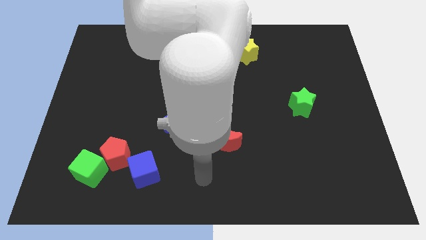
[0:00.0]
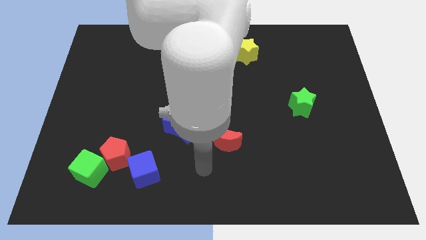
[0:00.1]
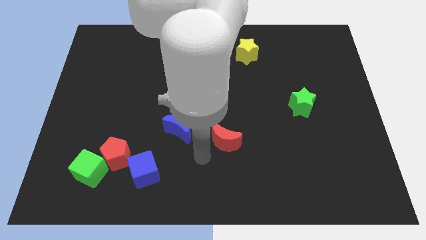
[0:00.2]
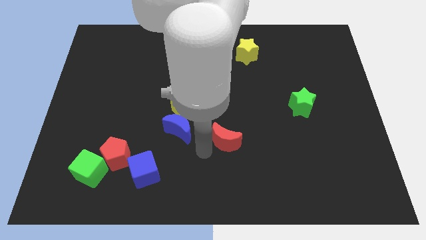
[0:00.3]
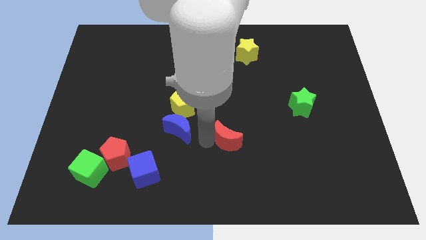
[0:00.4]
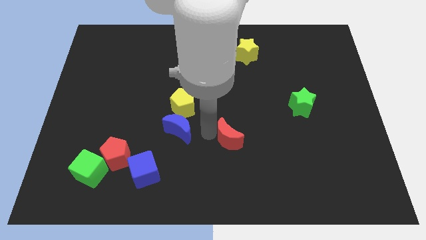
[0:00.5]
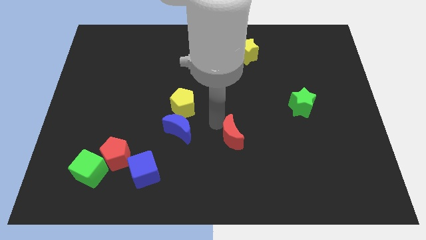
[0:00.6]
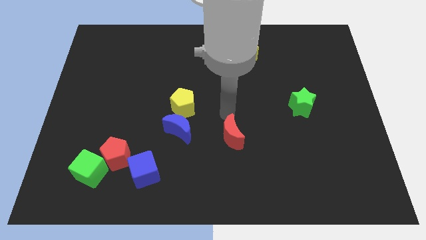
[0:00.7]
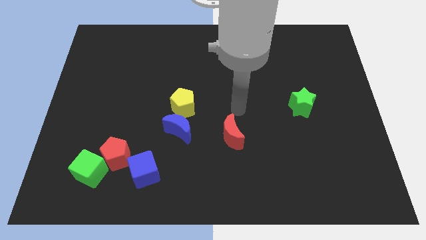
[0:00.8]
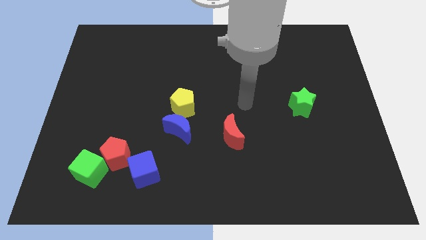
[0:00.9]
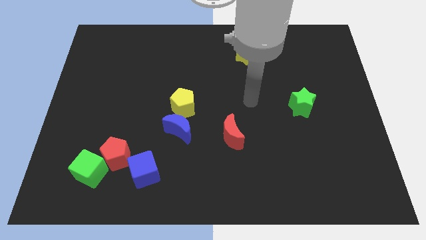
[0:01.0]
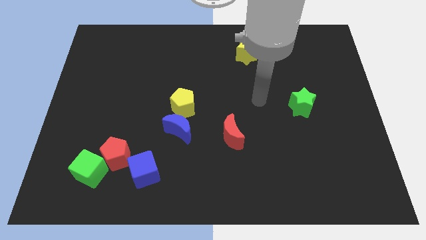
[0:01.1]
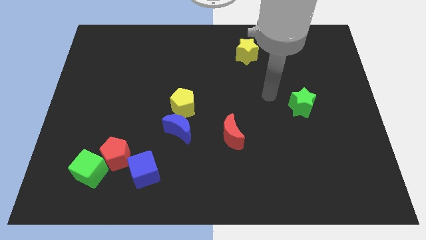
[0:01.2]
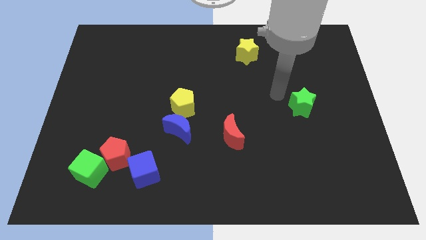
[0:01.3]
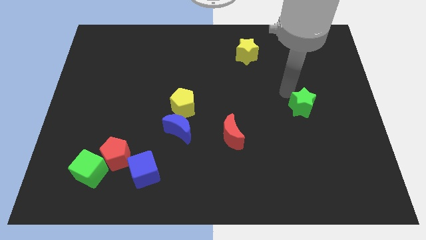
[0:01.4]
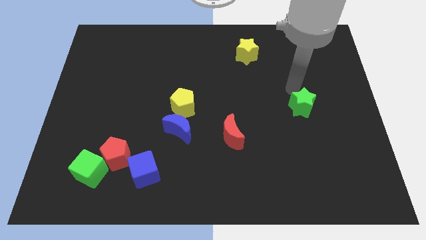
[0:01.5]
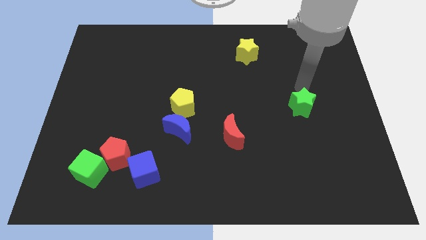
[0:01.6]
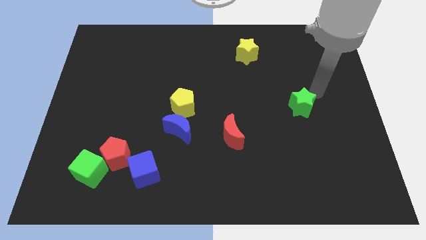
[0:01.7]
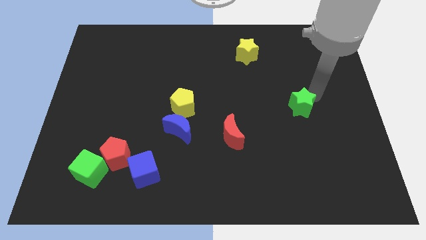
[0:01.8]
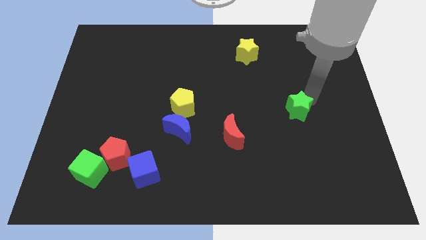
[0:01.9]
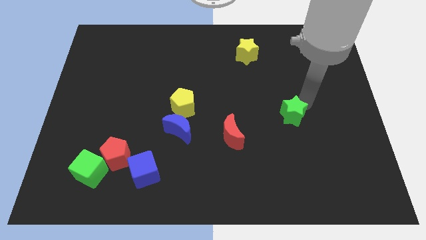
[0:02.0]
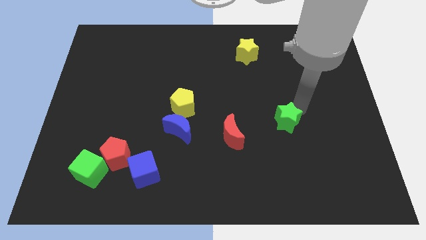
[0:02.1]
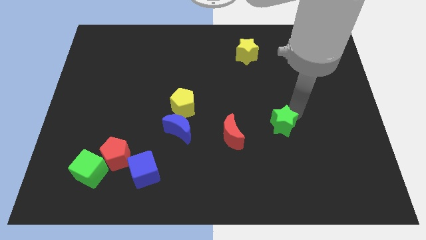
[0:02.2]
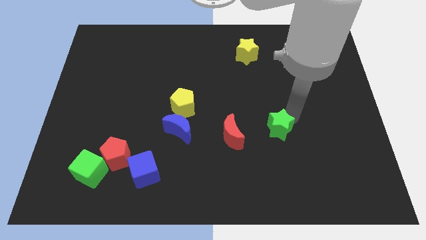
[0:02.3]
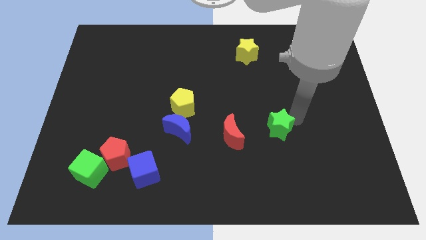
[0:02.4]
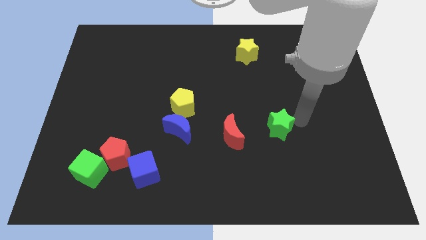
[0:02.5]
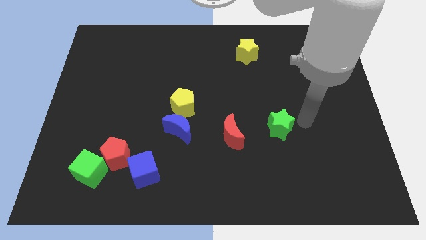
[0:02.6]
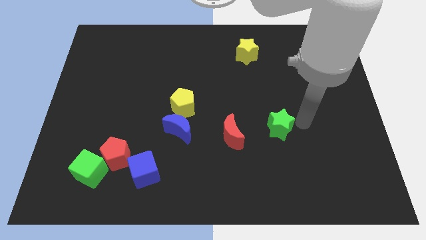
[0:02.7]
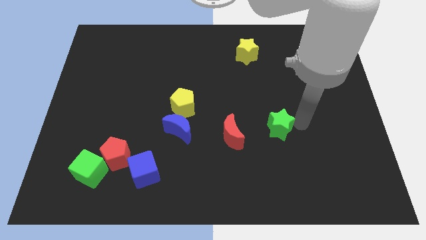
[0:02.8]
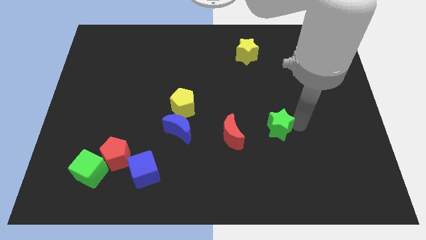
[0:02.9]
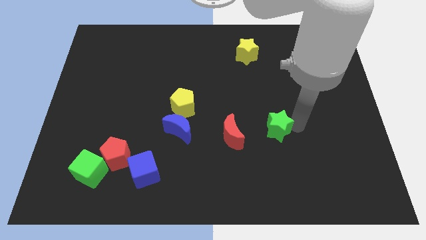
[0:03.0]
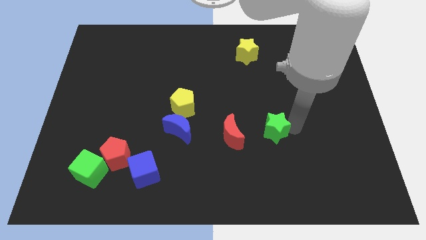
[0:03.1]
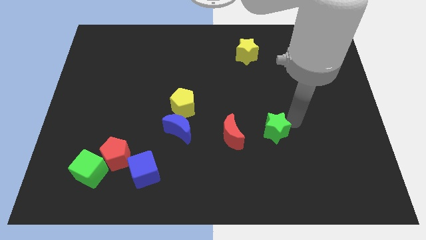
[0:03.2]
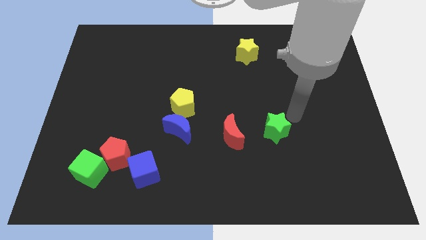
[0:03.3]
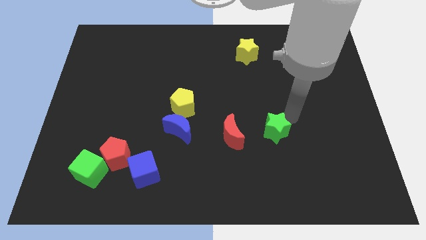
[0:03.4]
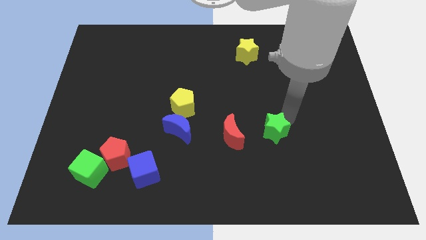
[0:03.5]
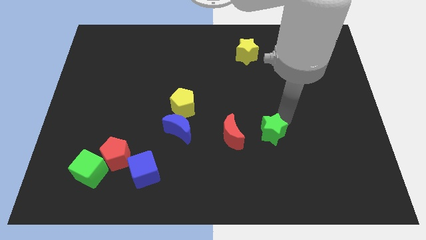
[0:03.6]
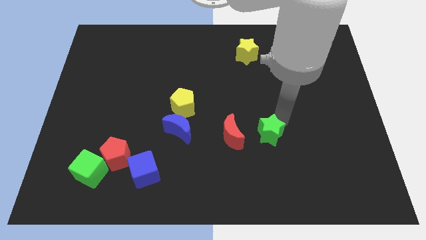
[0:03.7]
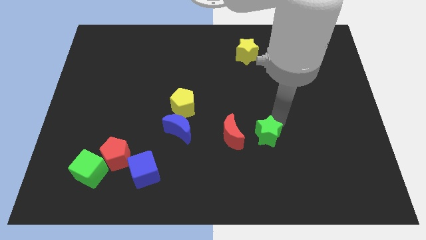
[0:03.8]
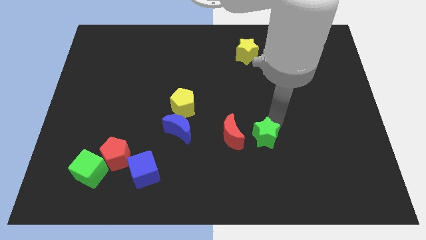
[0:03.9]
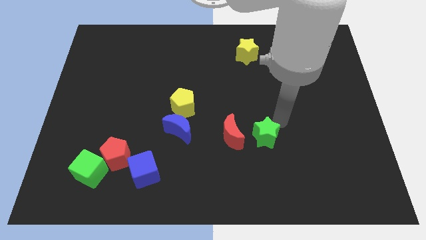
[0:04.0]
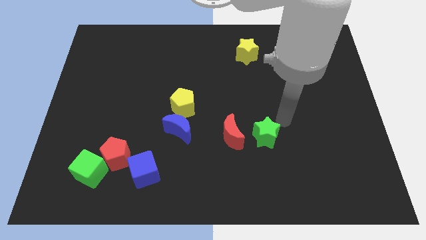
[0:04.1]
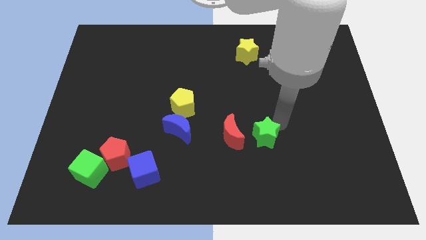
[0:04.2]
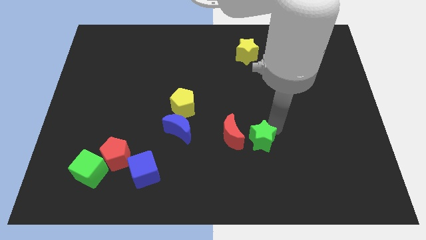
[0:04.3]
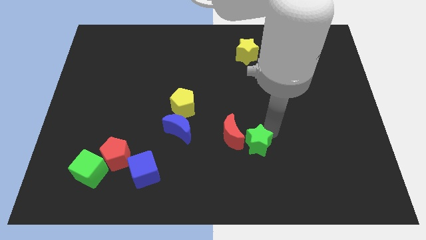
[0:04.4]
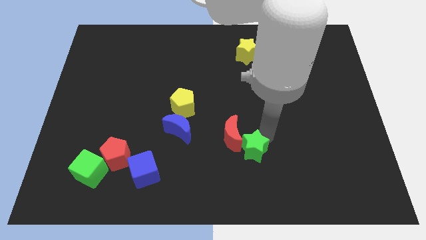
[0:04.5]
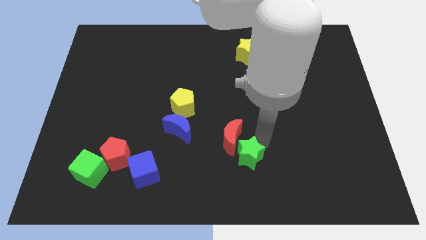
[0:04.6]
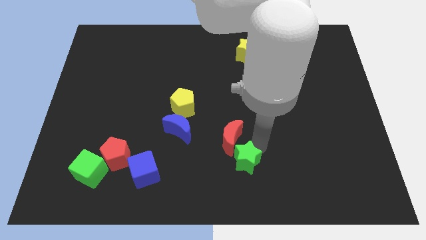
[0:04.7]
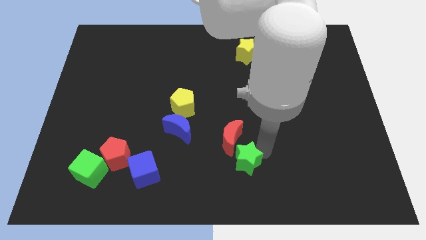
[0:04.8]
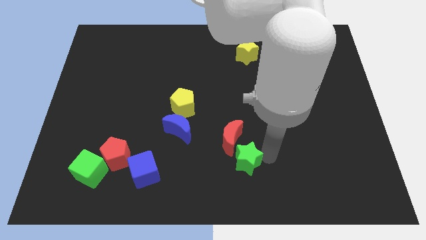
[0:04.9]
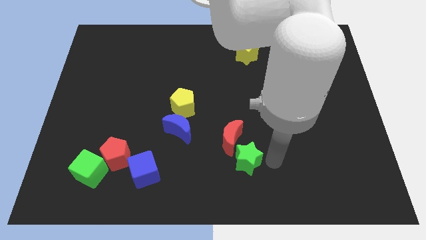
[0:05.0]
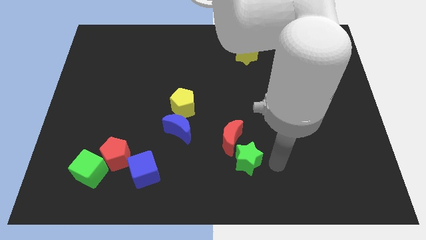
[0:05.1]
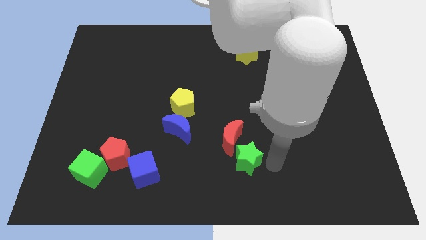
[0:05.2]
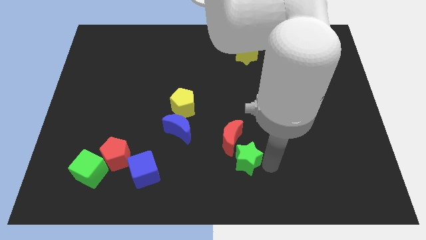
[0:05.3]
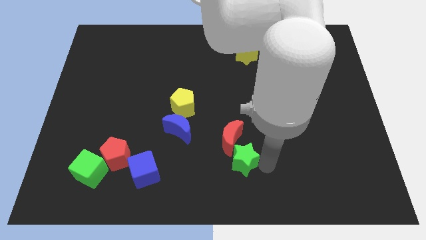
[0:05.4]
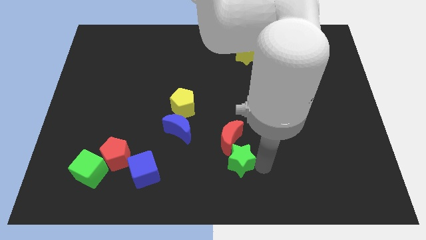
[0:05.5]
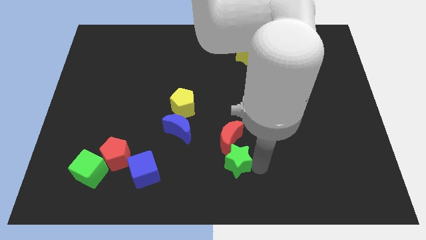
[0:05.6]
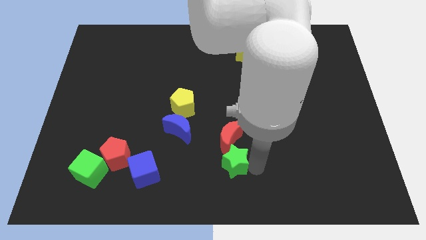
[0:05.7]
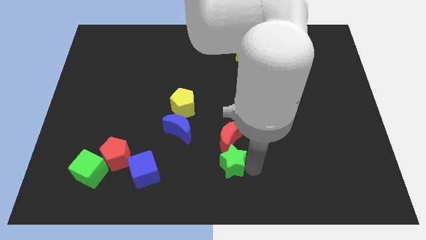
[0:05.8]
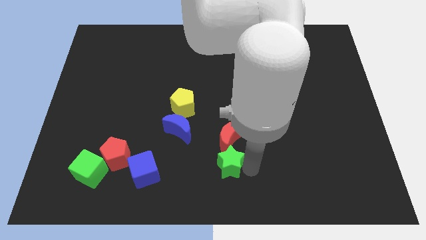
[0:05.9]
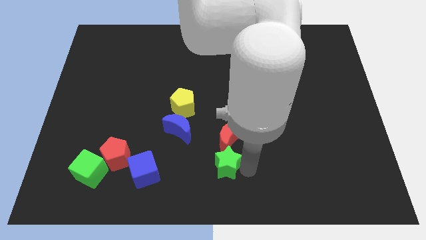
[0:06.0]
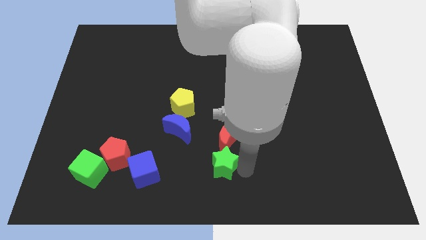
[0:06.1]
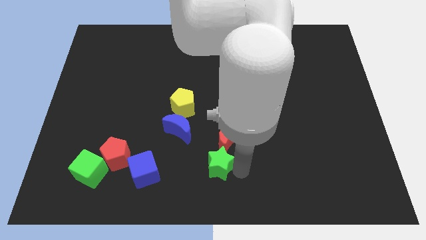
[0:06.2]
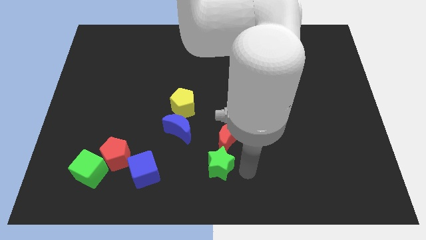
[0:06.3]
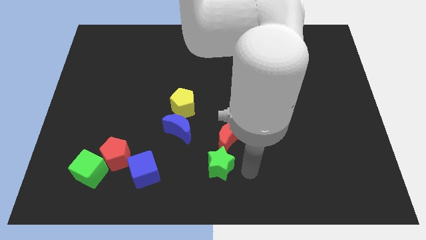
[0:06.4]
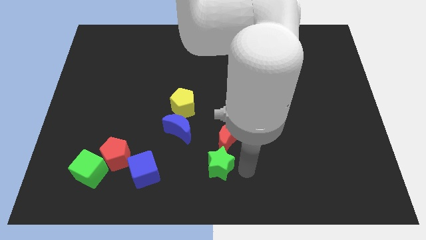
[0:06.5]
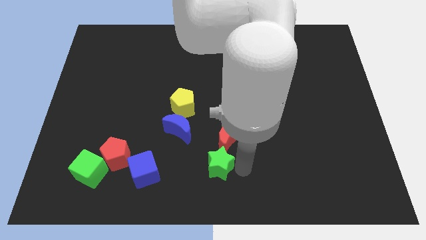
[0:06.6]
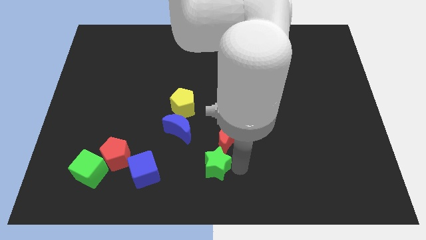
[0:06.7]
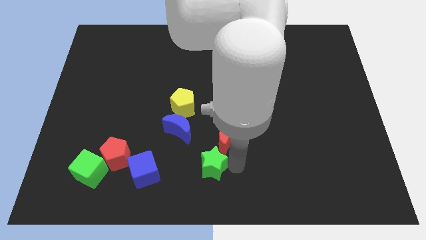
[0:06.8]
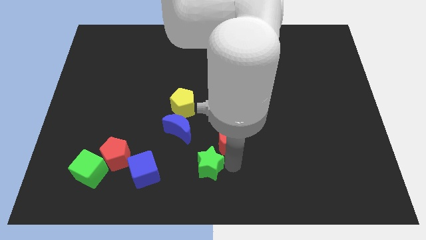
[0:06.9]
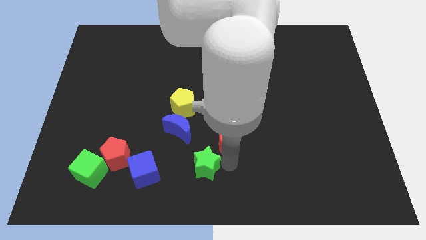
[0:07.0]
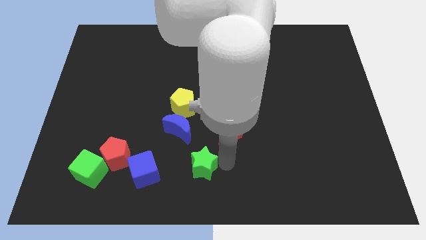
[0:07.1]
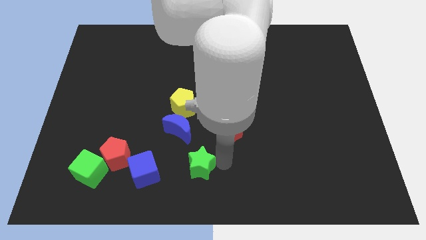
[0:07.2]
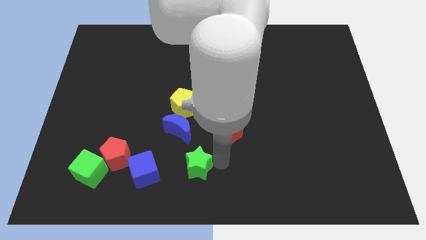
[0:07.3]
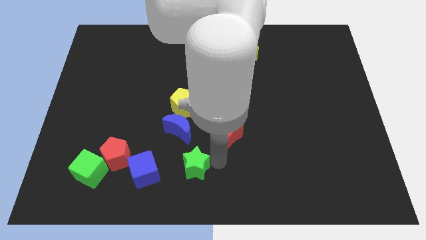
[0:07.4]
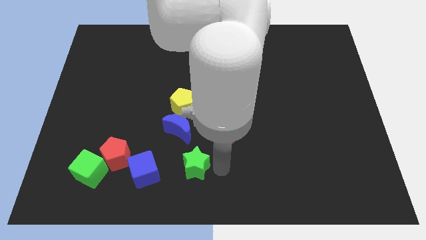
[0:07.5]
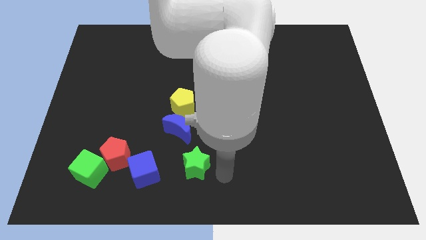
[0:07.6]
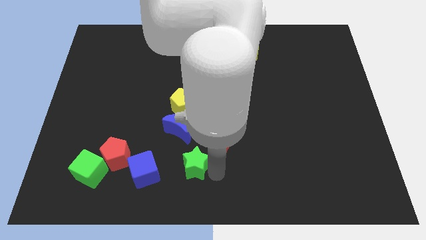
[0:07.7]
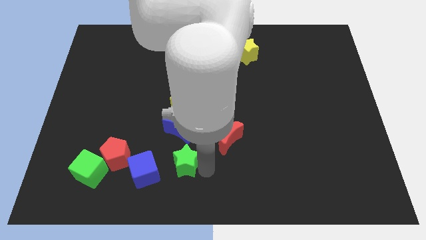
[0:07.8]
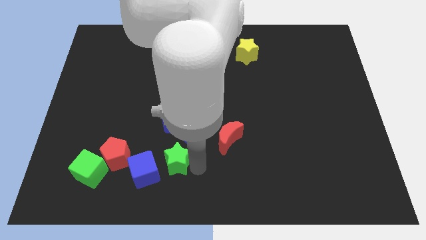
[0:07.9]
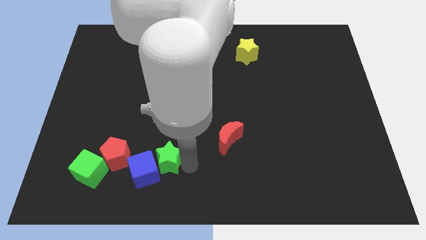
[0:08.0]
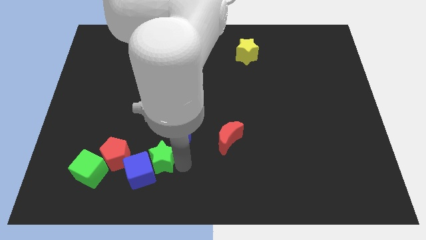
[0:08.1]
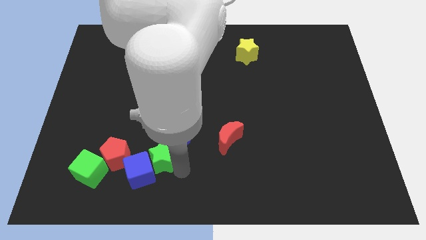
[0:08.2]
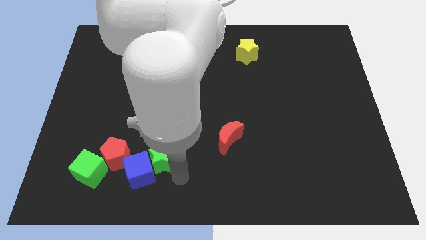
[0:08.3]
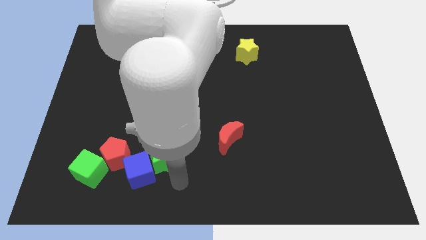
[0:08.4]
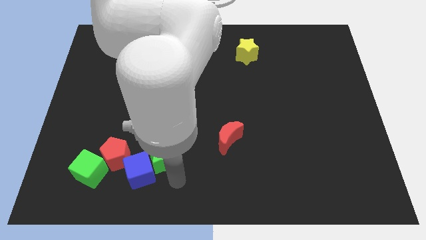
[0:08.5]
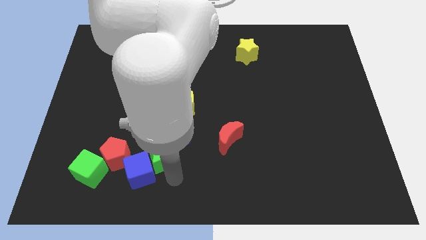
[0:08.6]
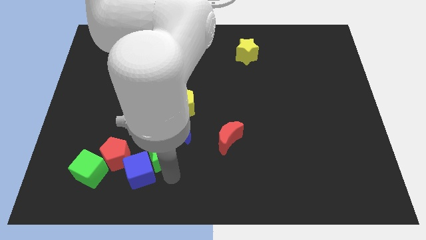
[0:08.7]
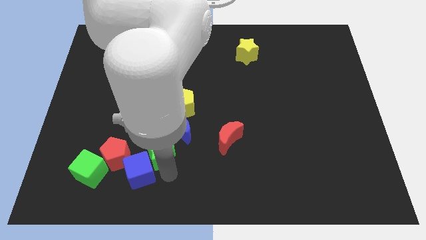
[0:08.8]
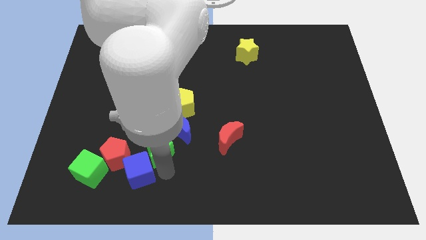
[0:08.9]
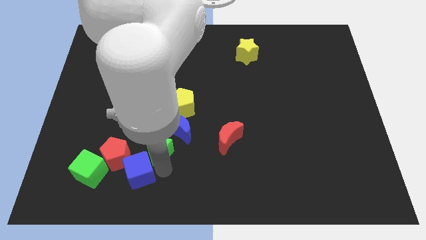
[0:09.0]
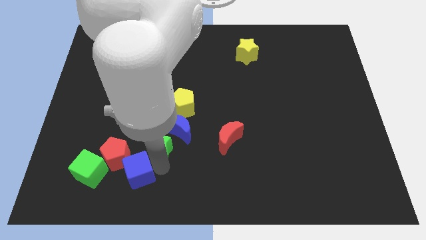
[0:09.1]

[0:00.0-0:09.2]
push the green star to the top right of the red pentagon
